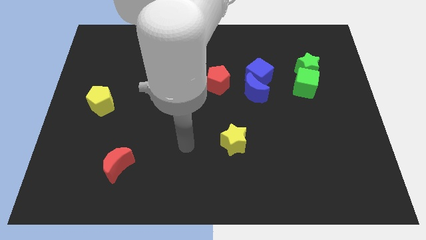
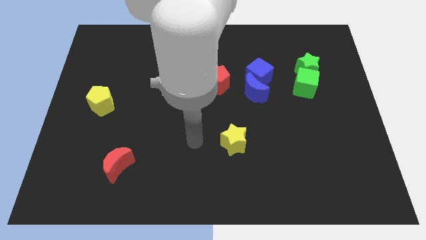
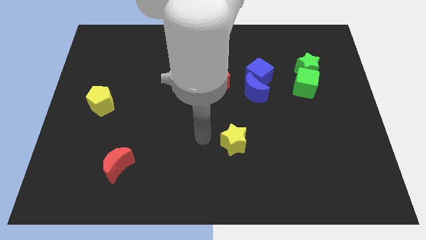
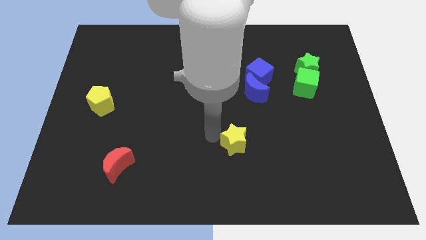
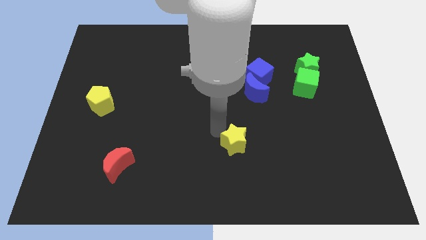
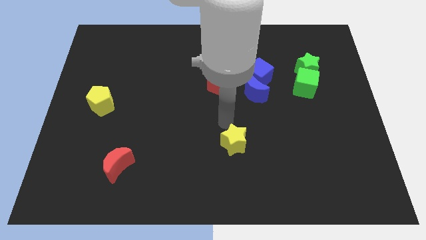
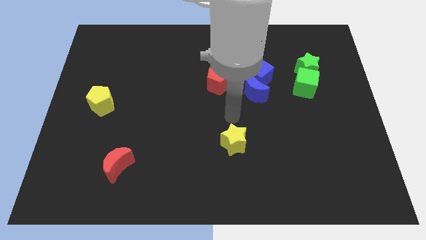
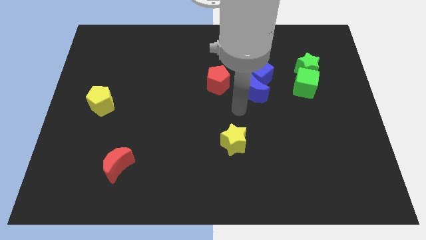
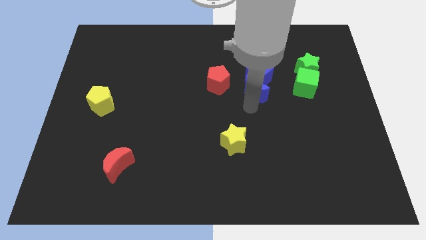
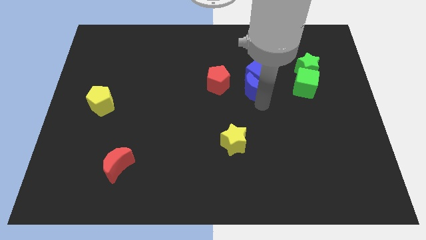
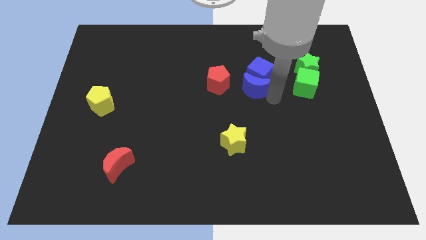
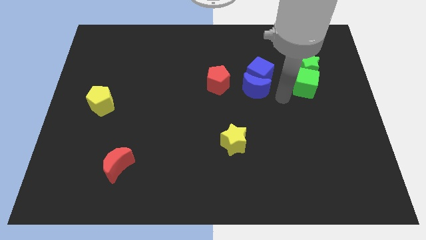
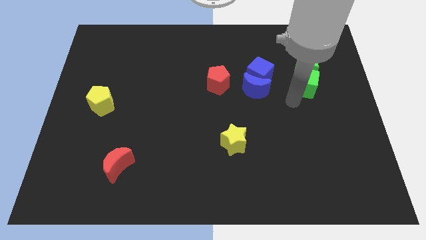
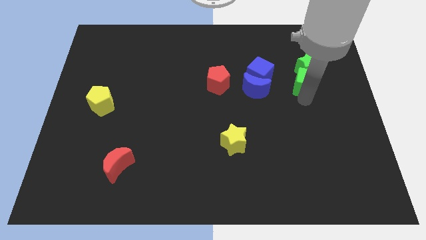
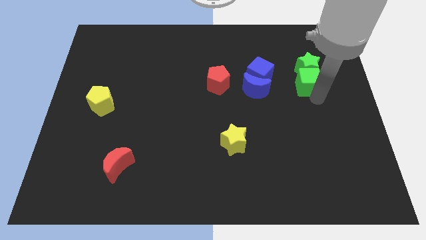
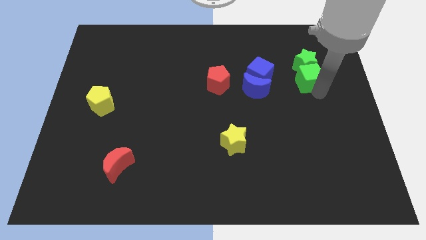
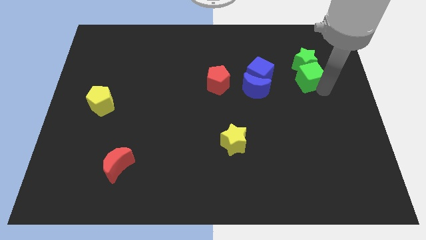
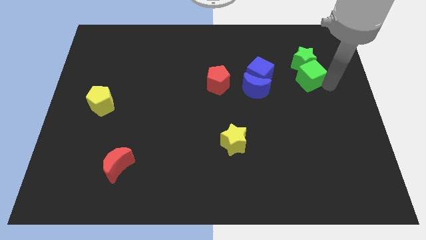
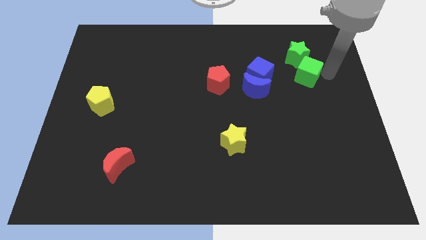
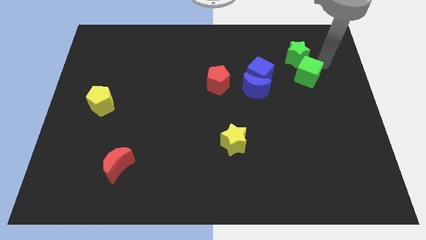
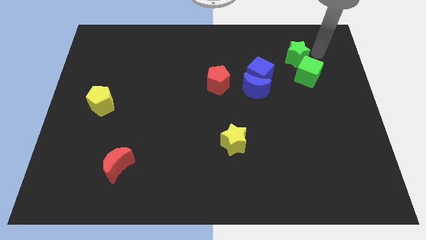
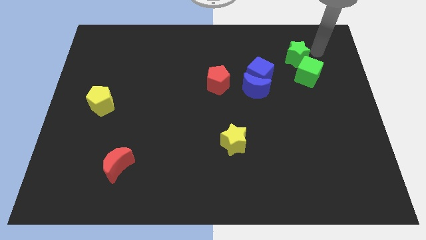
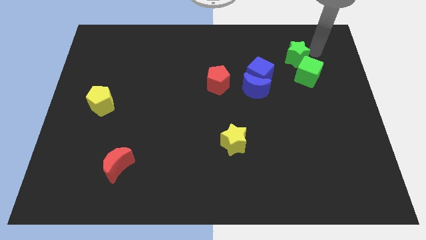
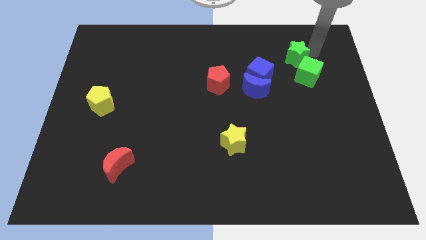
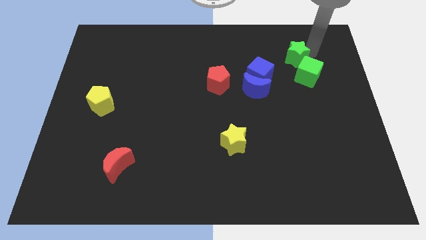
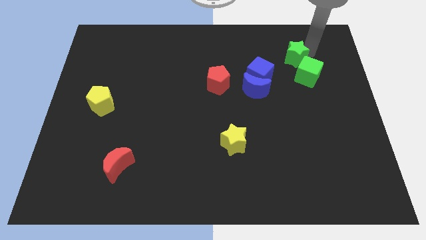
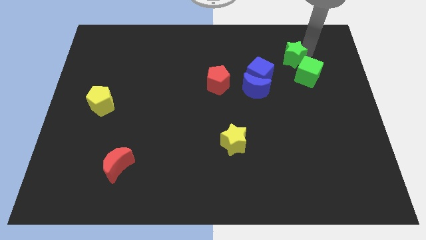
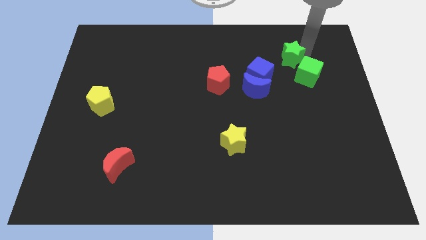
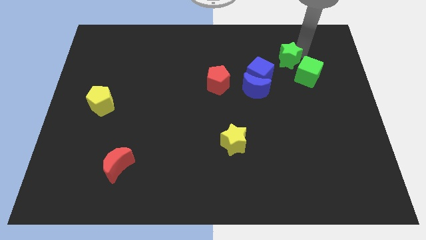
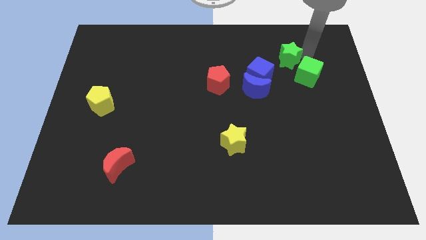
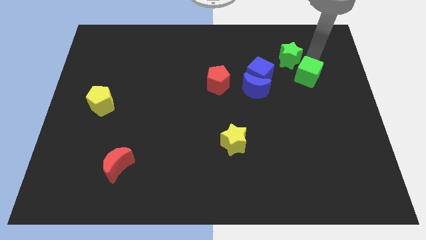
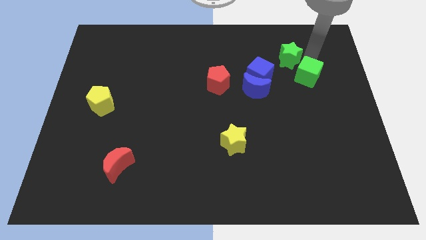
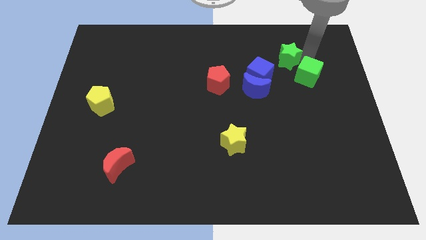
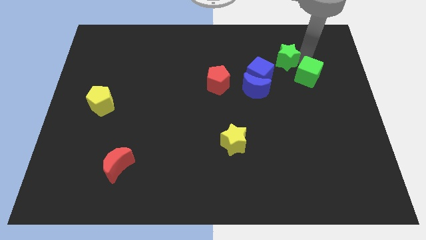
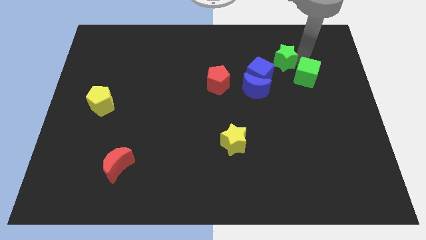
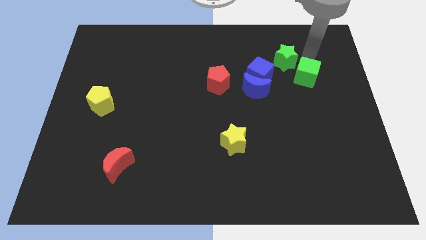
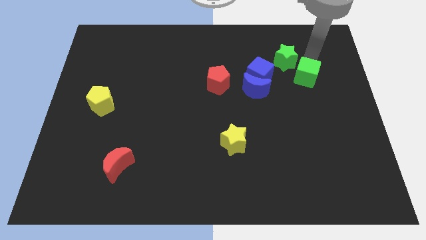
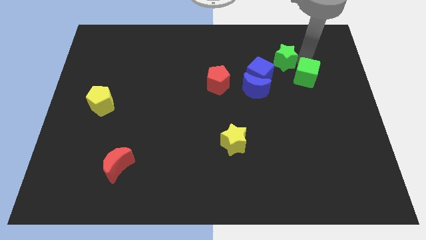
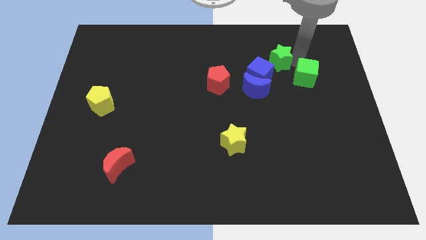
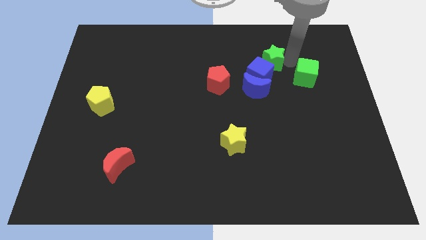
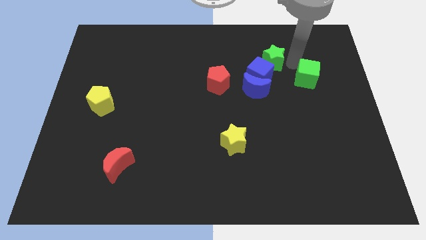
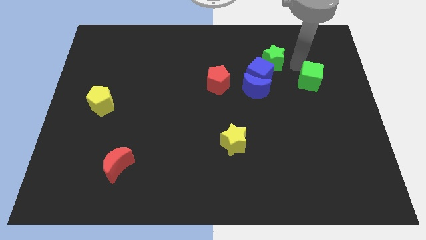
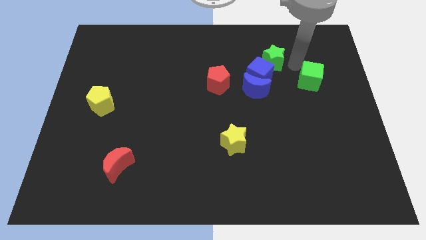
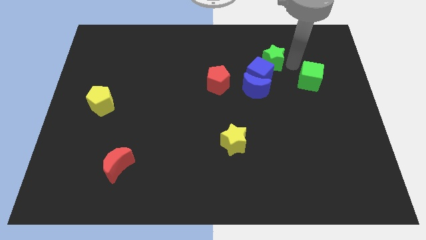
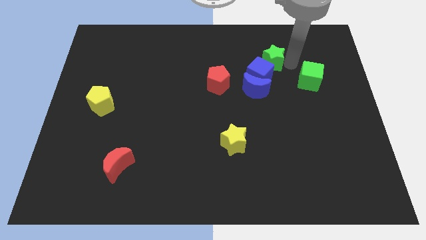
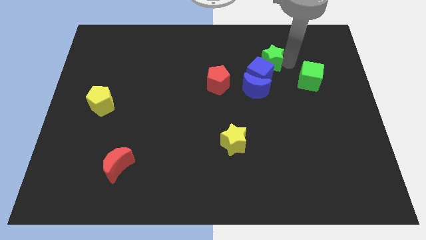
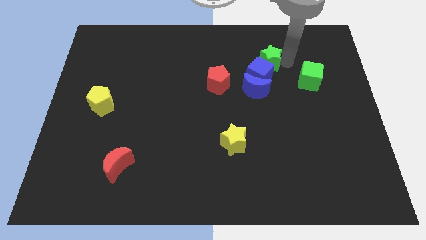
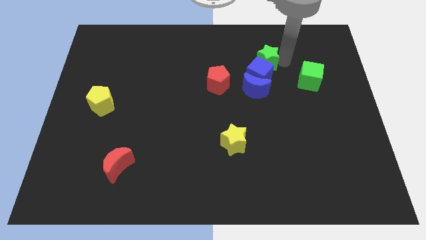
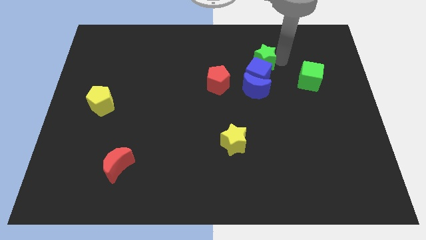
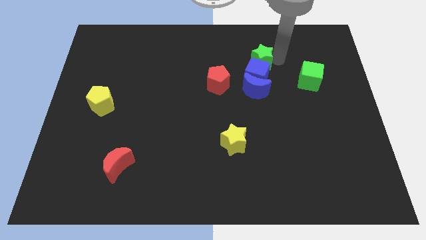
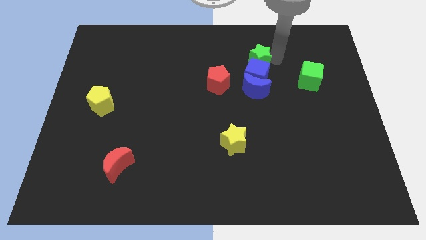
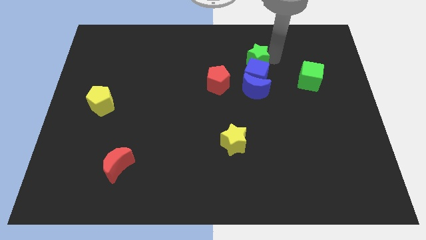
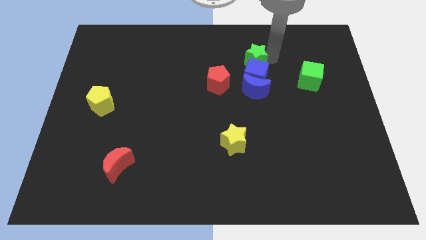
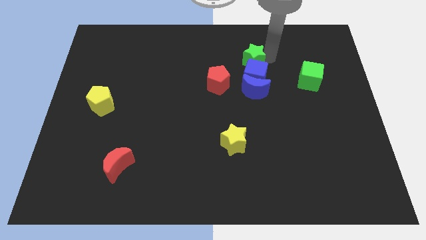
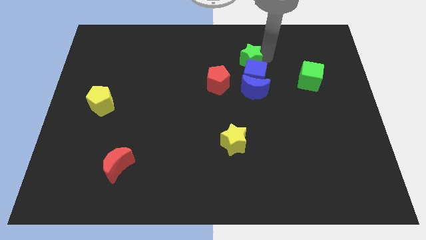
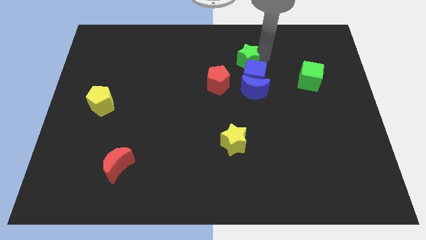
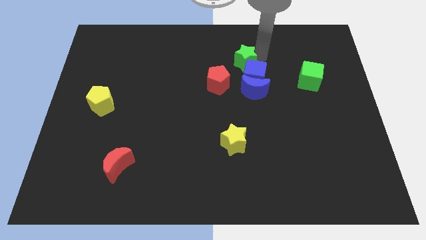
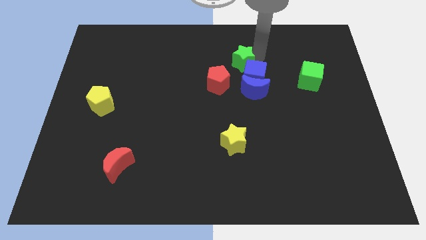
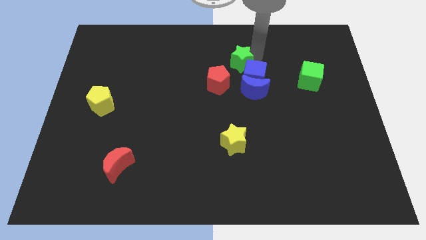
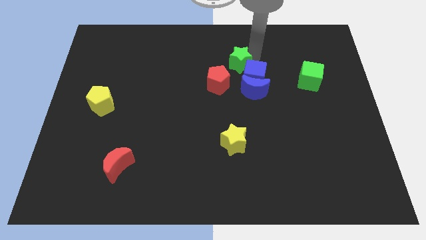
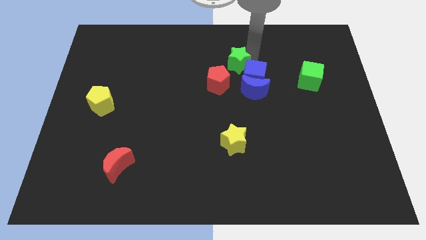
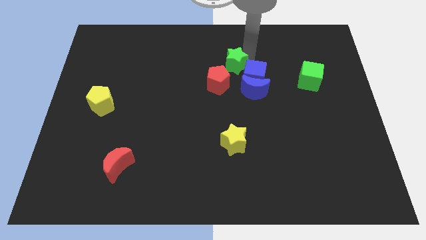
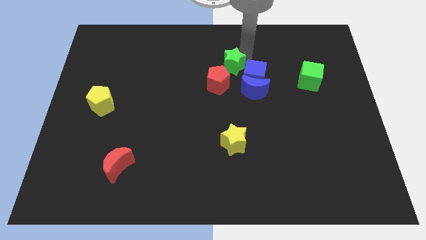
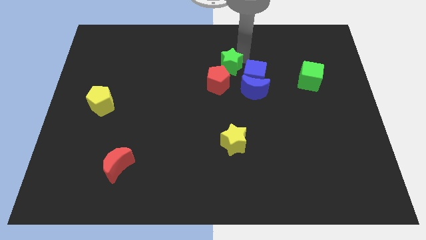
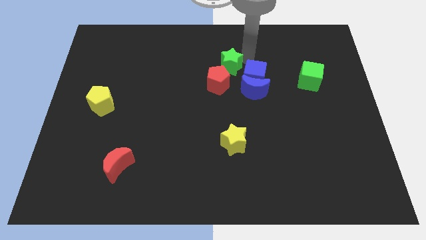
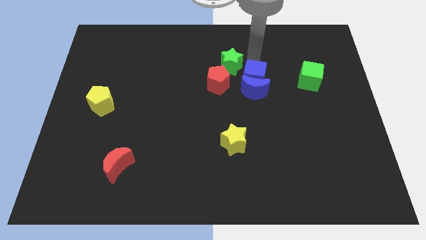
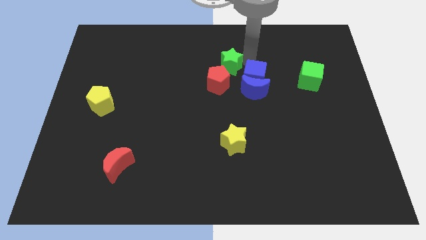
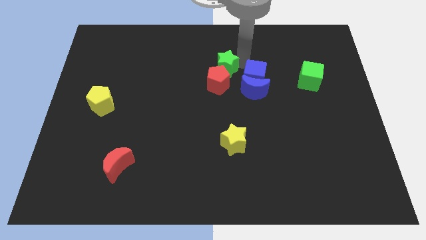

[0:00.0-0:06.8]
slide the green star to the left

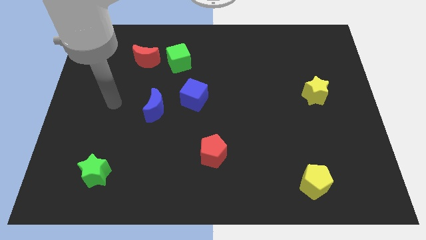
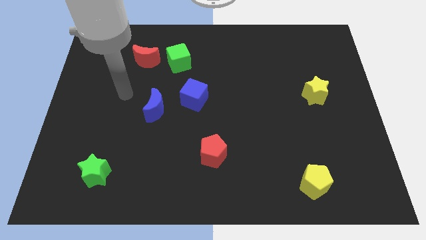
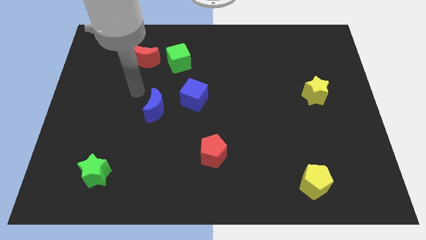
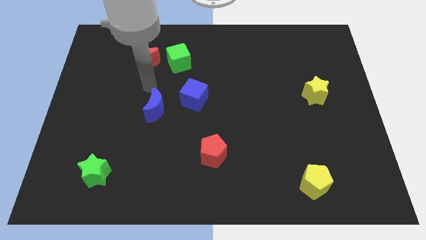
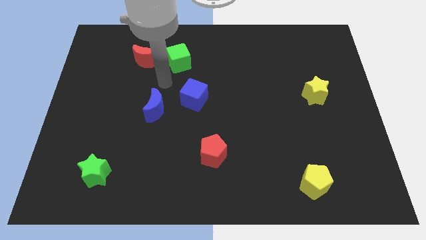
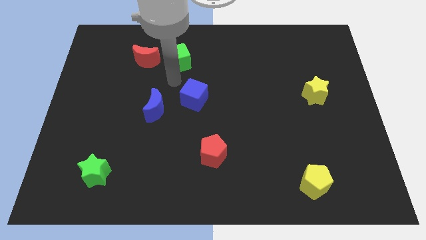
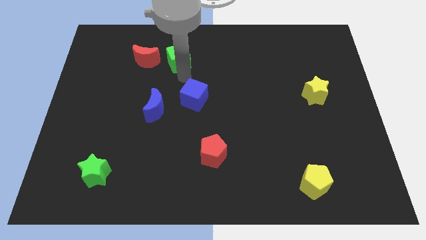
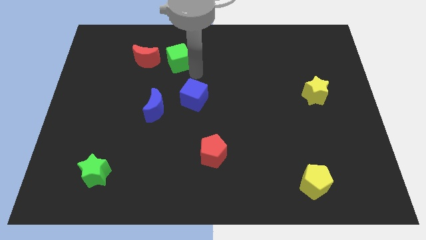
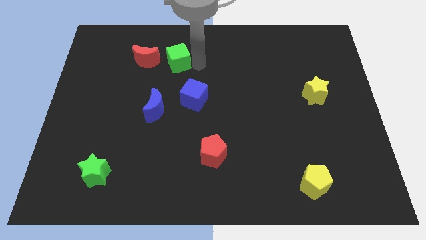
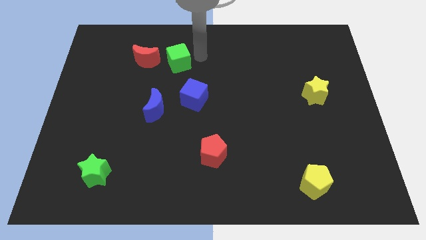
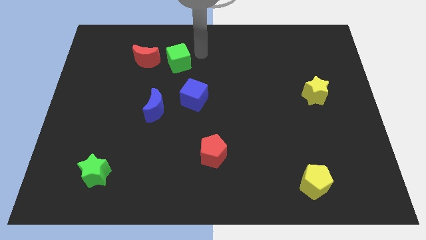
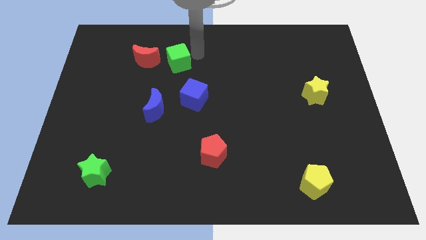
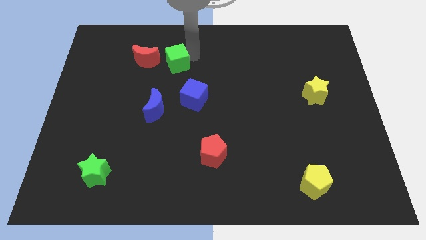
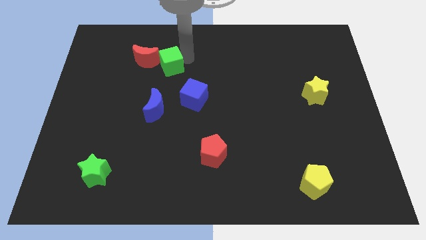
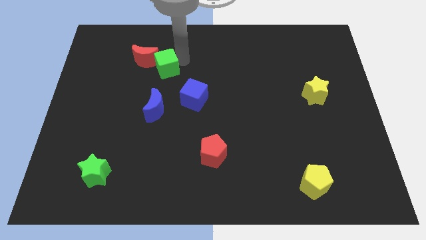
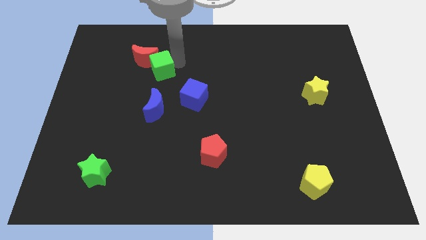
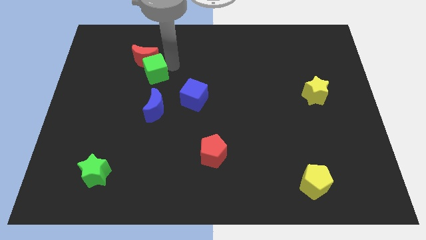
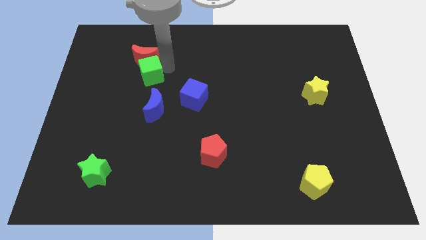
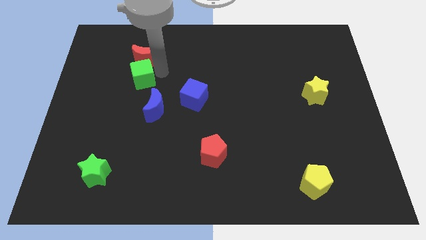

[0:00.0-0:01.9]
move the green cube left a little bit
